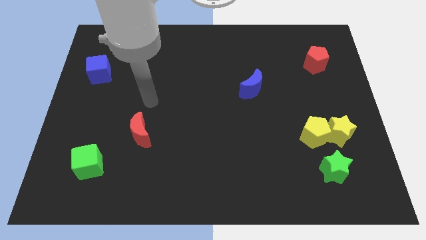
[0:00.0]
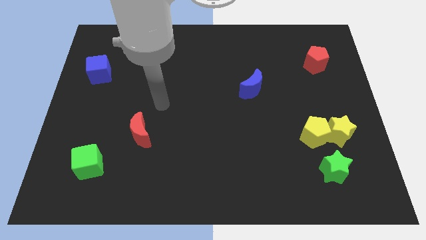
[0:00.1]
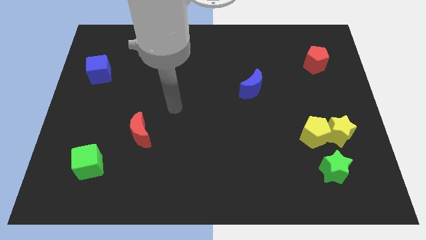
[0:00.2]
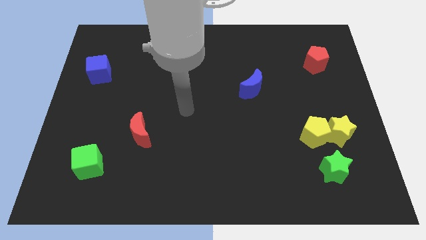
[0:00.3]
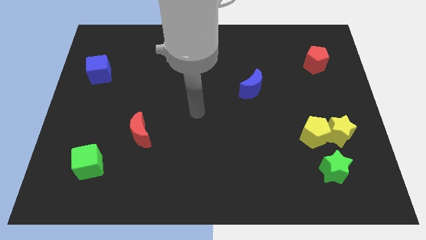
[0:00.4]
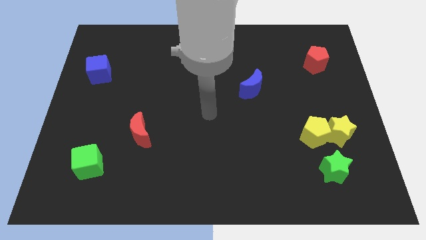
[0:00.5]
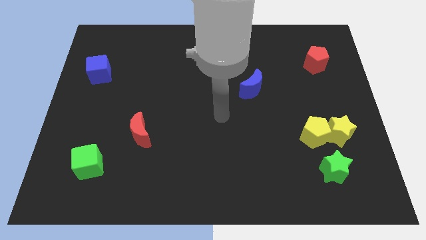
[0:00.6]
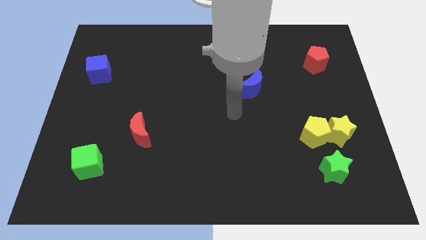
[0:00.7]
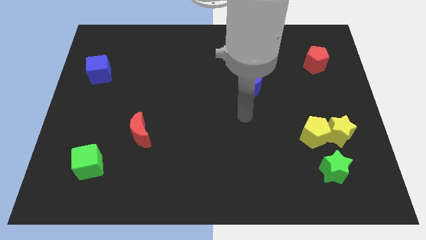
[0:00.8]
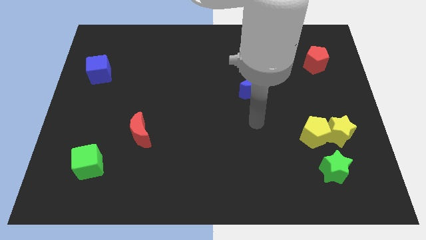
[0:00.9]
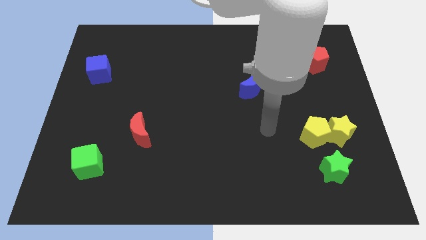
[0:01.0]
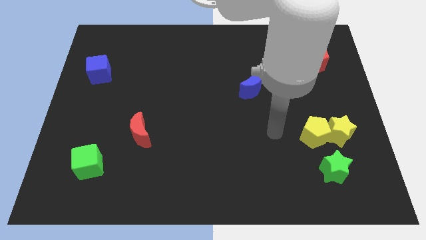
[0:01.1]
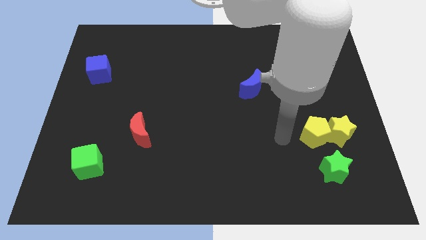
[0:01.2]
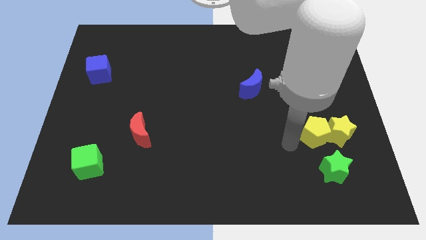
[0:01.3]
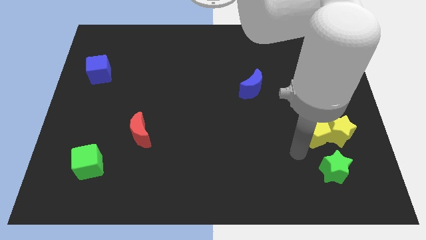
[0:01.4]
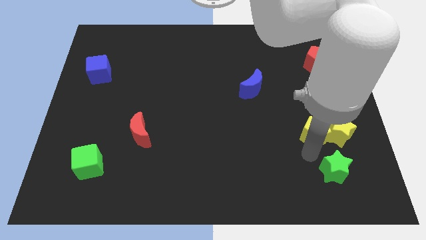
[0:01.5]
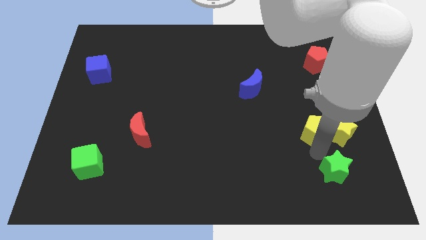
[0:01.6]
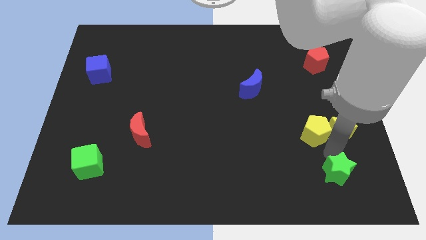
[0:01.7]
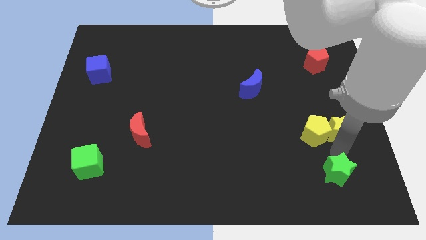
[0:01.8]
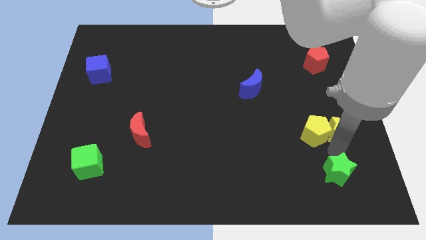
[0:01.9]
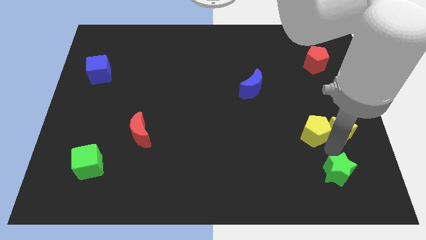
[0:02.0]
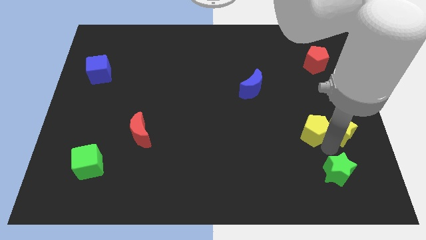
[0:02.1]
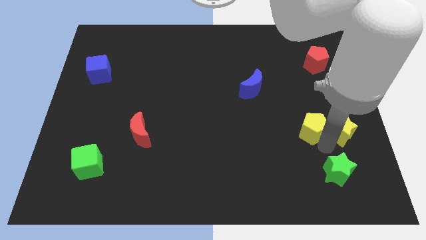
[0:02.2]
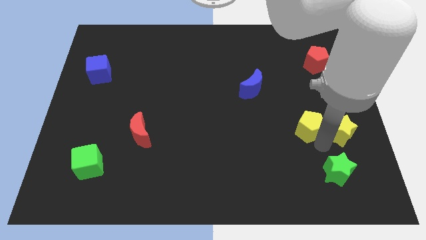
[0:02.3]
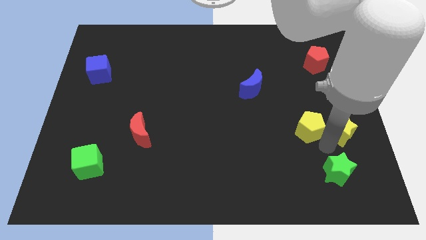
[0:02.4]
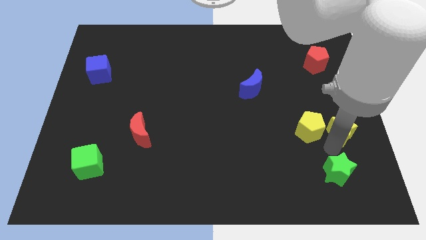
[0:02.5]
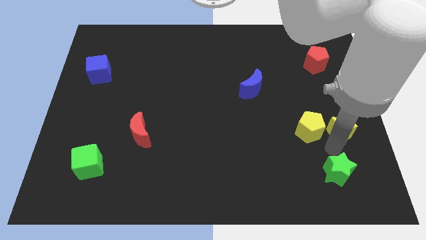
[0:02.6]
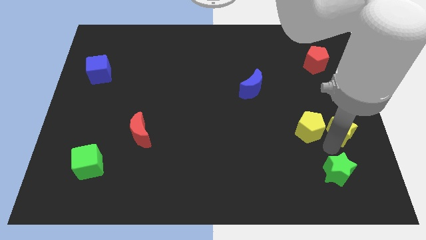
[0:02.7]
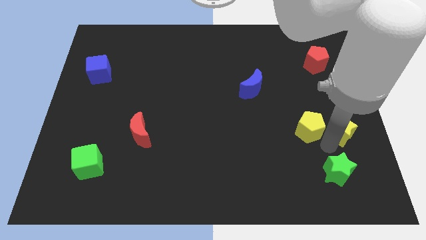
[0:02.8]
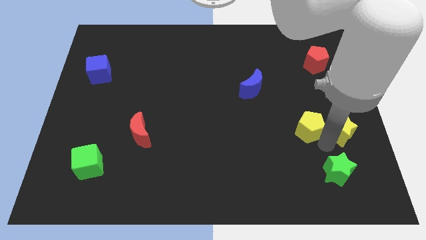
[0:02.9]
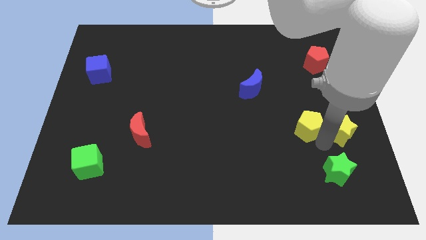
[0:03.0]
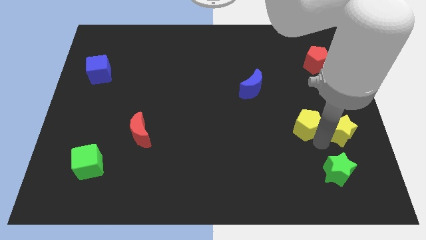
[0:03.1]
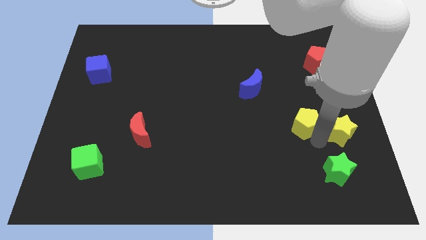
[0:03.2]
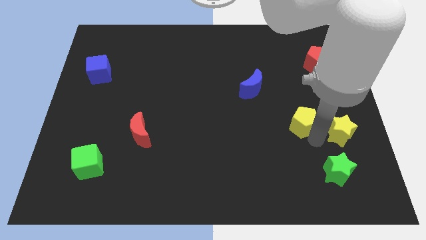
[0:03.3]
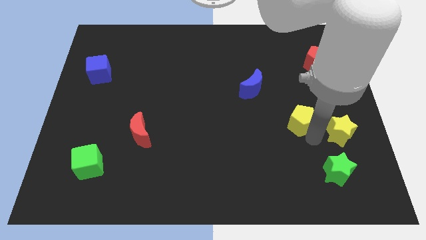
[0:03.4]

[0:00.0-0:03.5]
separate the yellow pentagon from the yellow star and green star

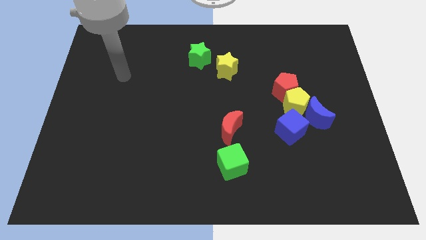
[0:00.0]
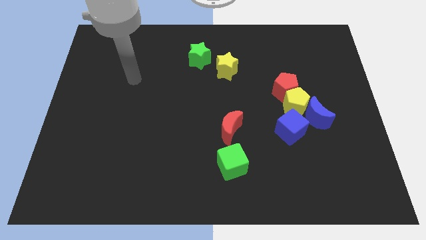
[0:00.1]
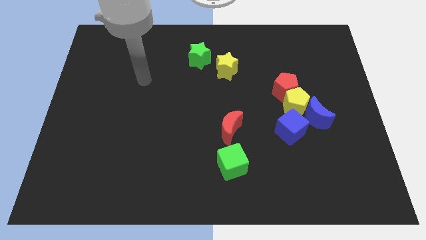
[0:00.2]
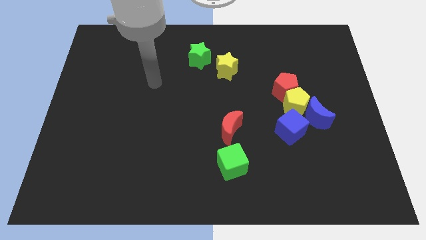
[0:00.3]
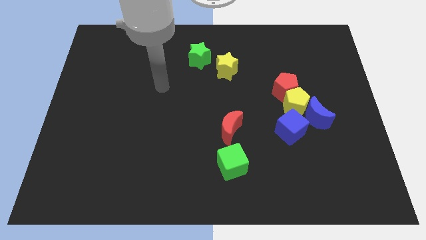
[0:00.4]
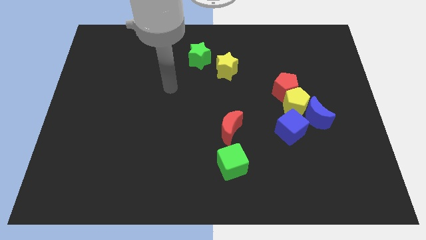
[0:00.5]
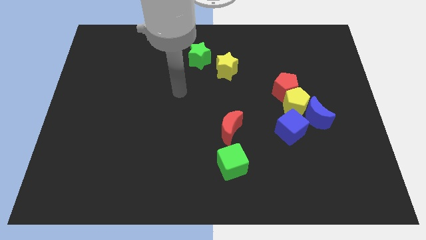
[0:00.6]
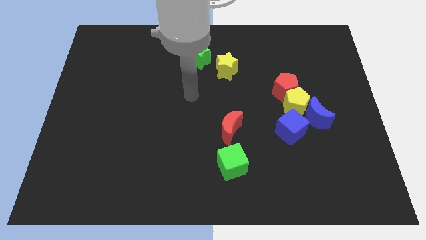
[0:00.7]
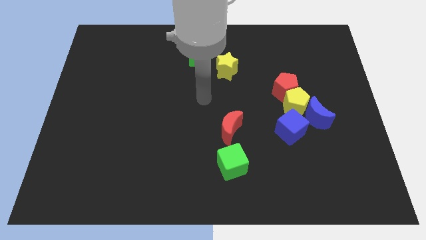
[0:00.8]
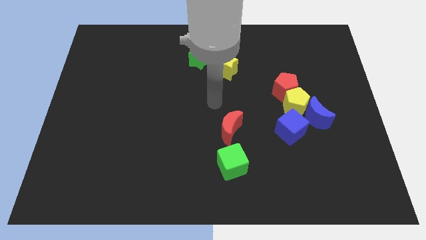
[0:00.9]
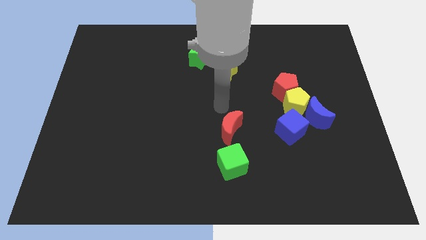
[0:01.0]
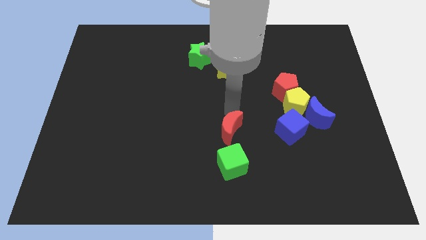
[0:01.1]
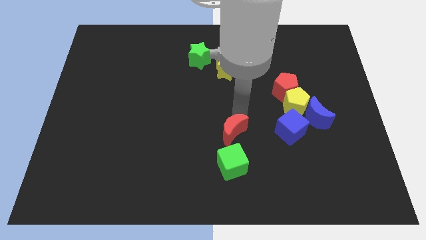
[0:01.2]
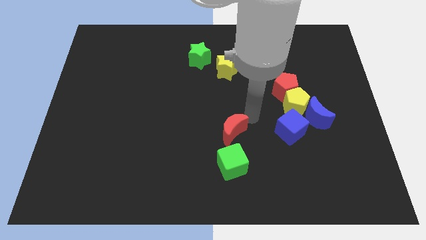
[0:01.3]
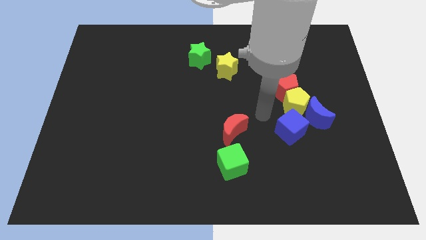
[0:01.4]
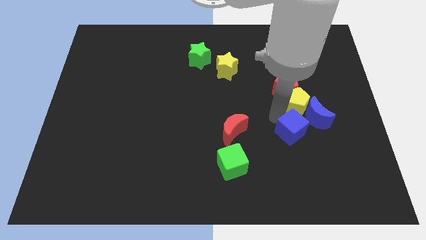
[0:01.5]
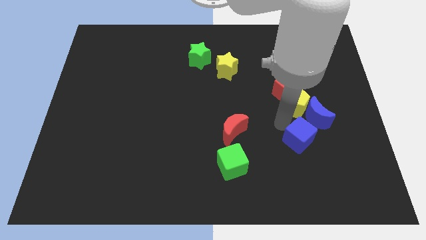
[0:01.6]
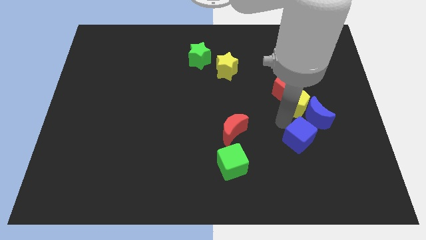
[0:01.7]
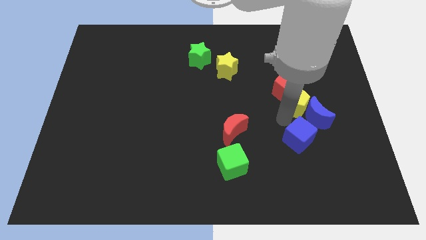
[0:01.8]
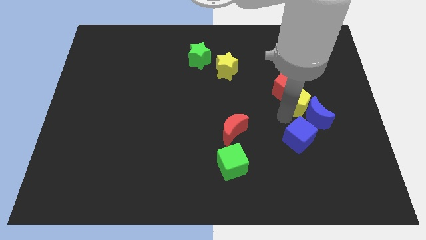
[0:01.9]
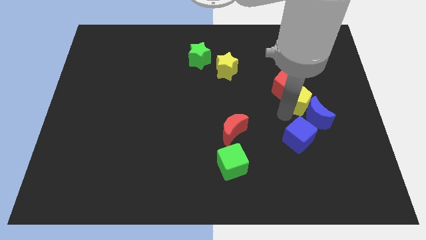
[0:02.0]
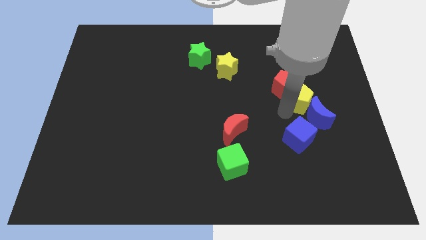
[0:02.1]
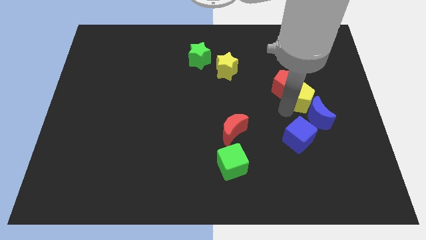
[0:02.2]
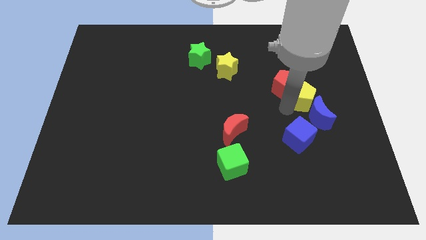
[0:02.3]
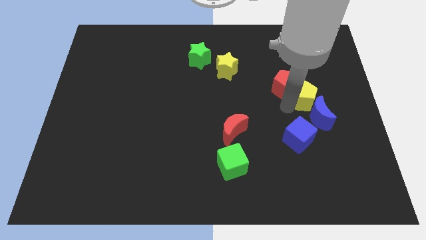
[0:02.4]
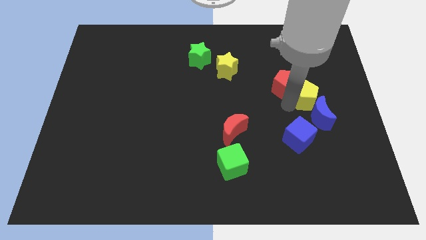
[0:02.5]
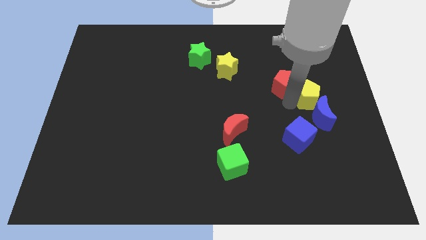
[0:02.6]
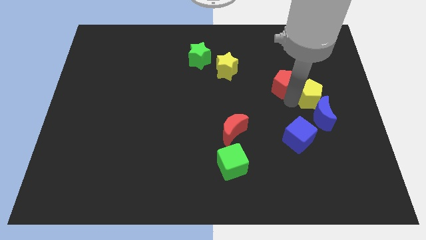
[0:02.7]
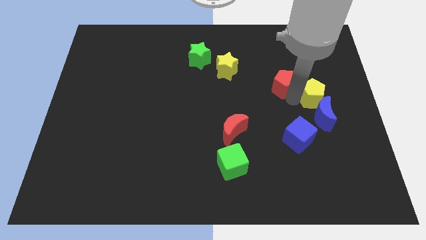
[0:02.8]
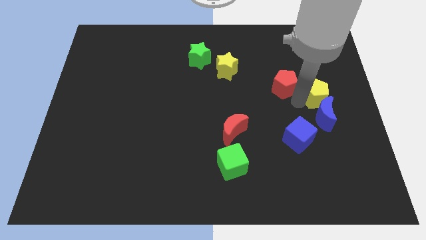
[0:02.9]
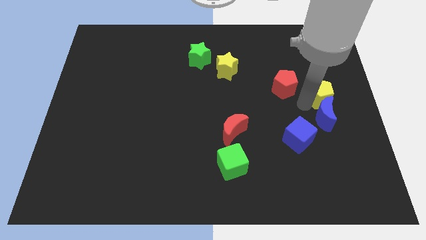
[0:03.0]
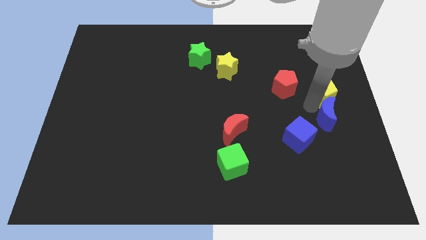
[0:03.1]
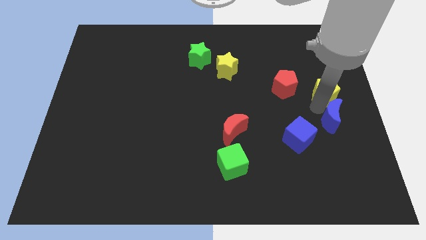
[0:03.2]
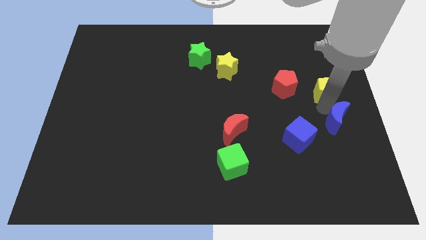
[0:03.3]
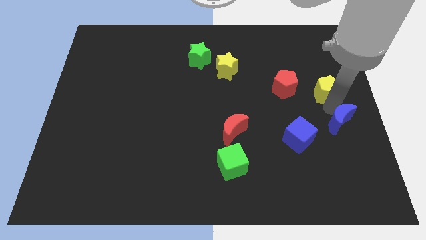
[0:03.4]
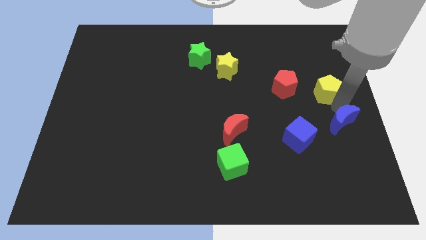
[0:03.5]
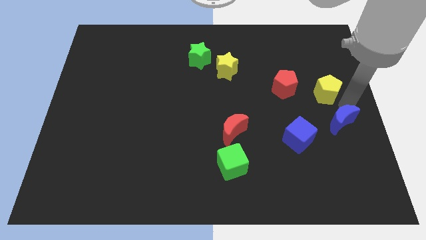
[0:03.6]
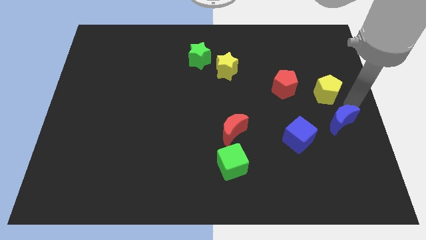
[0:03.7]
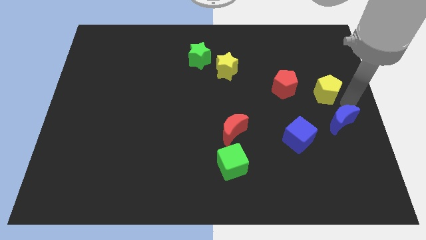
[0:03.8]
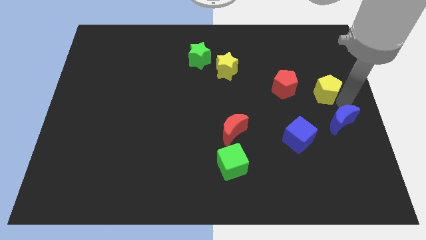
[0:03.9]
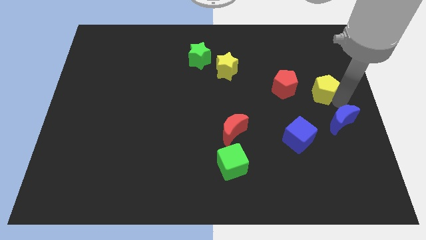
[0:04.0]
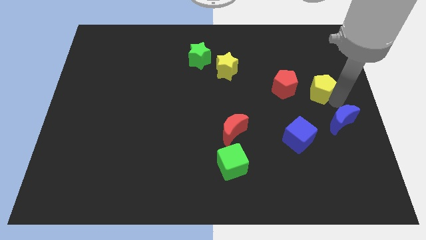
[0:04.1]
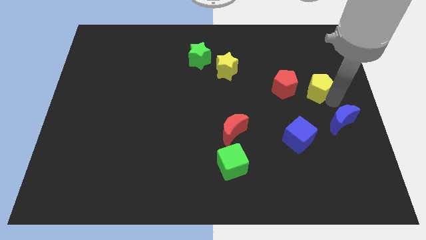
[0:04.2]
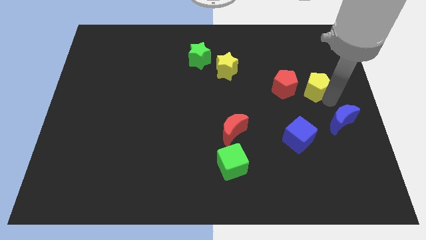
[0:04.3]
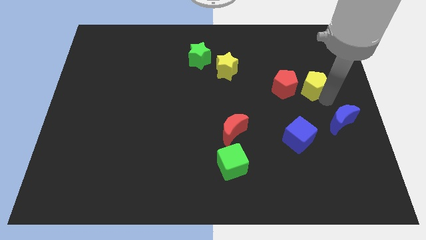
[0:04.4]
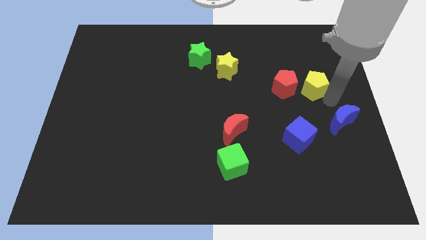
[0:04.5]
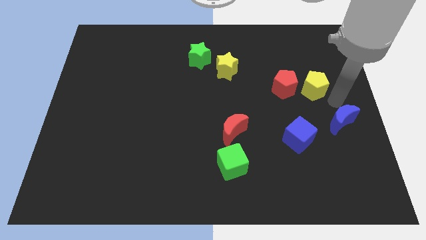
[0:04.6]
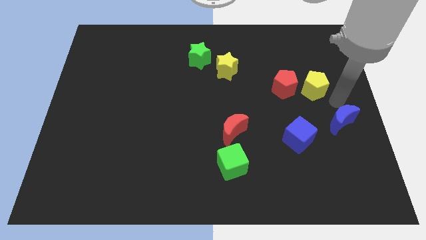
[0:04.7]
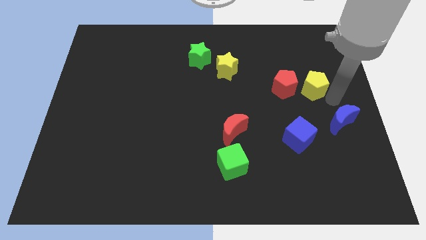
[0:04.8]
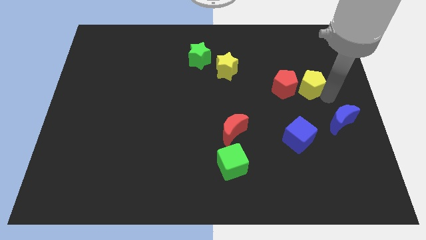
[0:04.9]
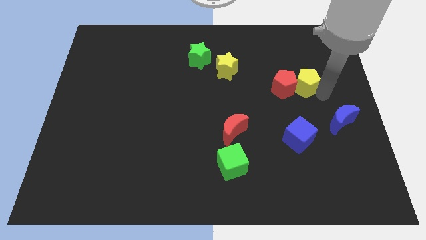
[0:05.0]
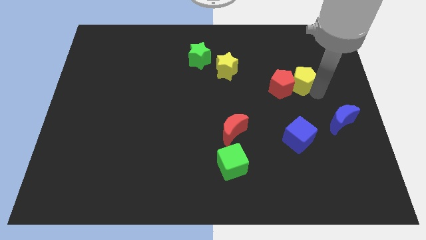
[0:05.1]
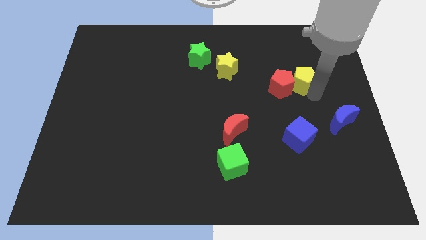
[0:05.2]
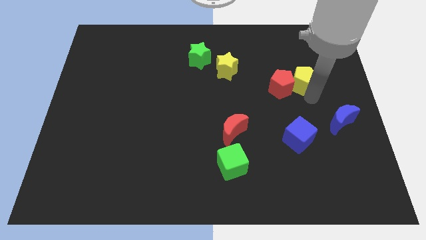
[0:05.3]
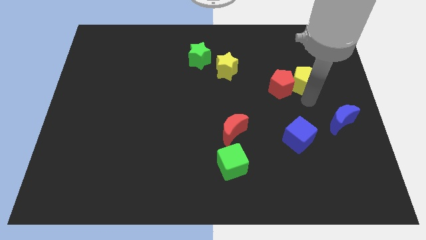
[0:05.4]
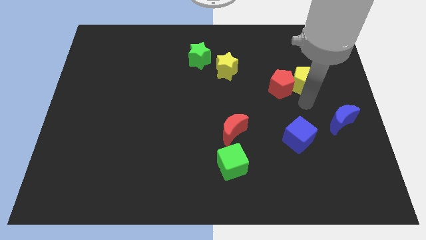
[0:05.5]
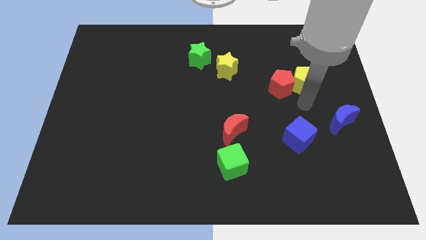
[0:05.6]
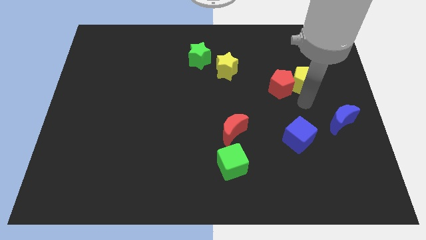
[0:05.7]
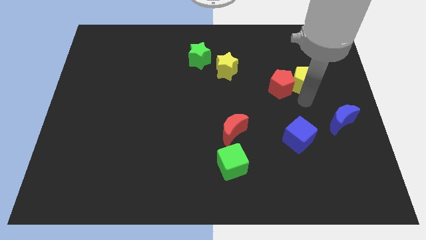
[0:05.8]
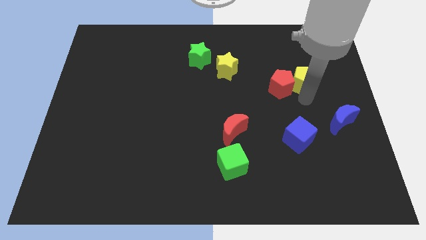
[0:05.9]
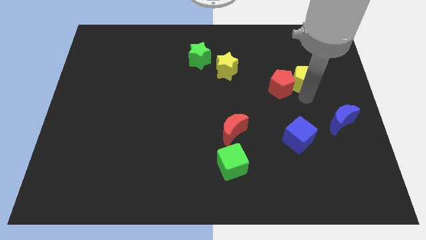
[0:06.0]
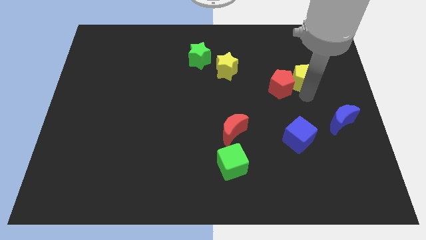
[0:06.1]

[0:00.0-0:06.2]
pull the yellow pentagon apart from the group of blocks
